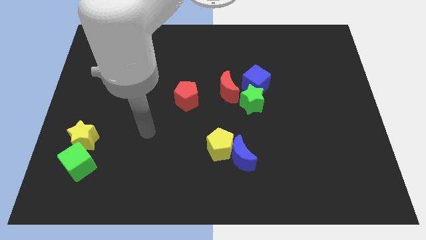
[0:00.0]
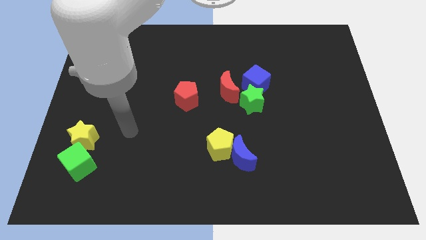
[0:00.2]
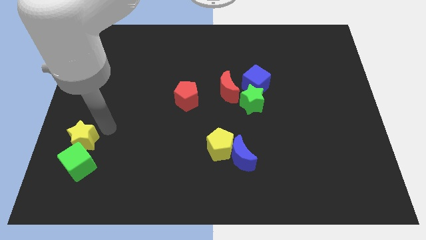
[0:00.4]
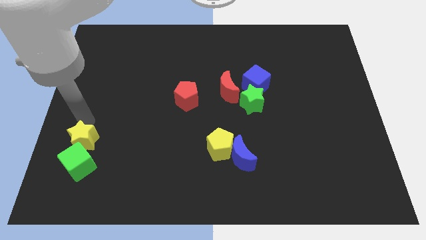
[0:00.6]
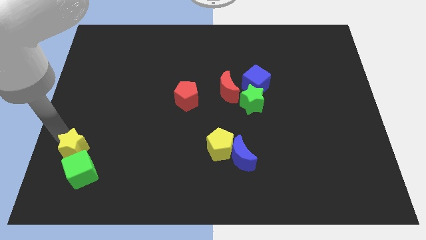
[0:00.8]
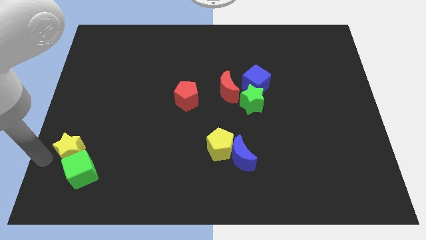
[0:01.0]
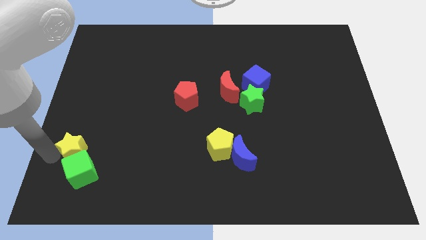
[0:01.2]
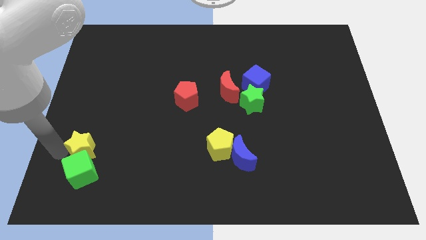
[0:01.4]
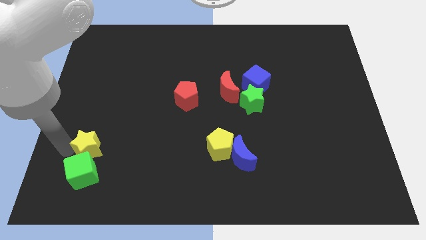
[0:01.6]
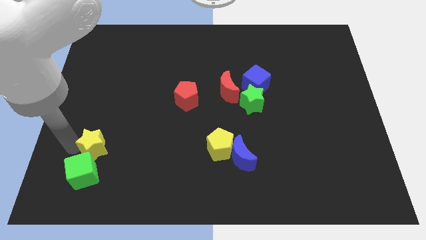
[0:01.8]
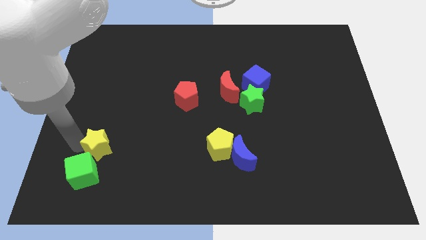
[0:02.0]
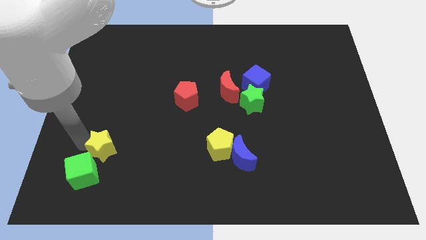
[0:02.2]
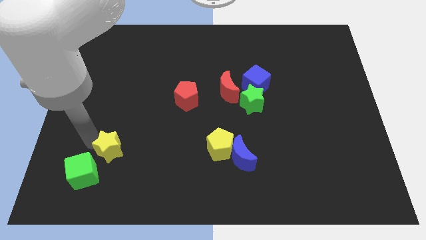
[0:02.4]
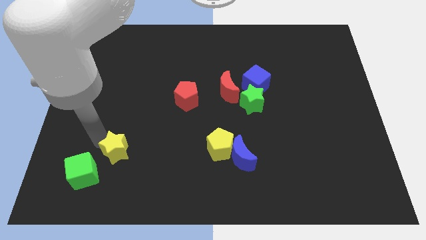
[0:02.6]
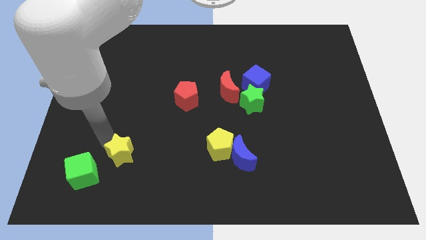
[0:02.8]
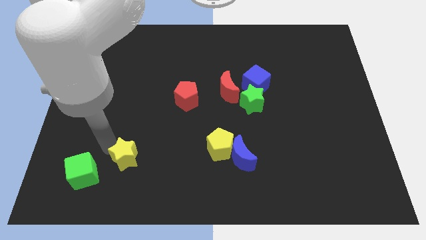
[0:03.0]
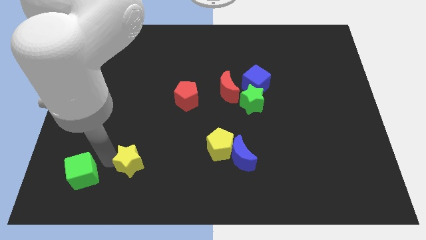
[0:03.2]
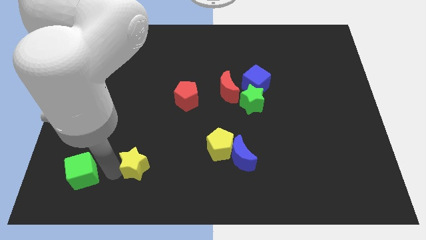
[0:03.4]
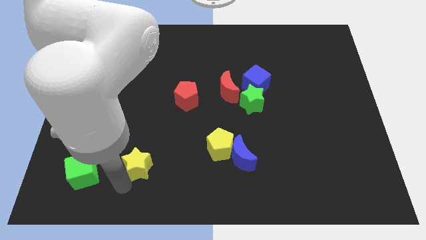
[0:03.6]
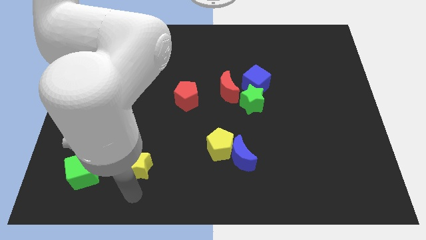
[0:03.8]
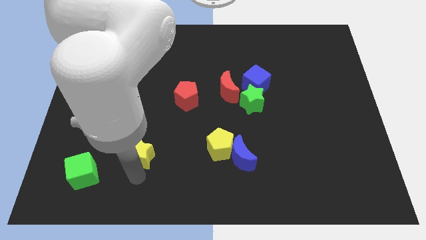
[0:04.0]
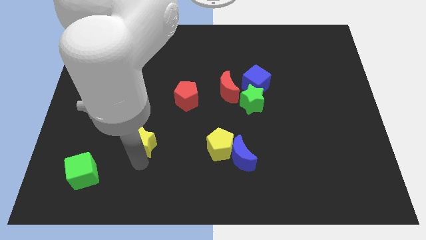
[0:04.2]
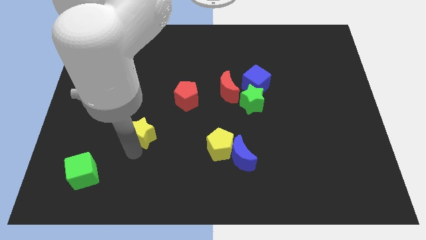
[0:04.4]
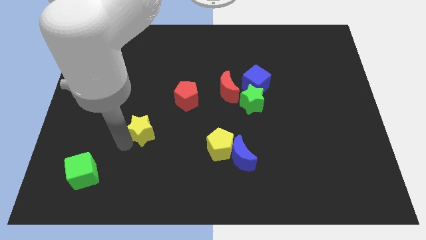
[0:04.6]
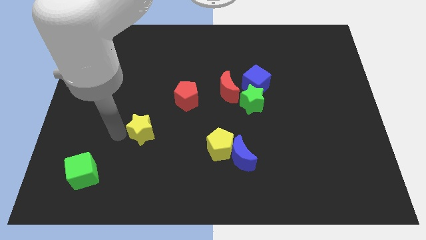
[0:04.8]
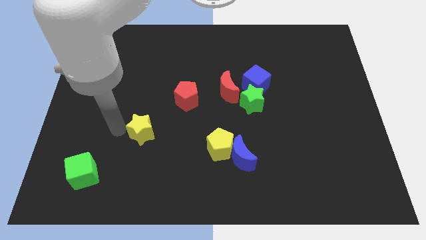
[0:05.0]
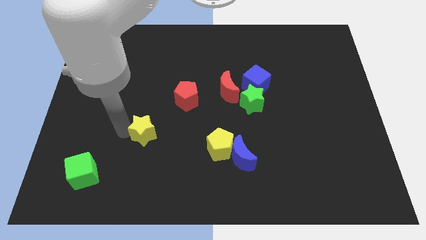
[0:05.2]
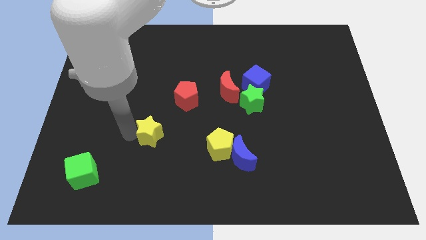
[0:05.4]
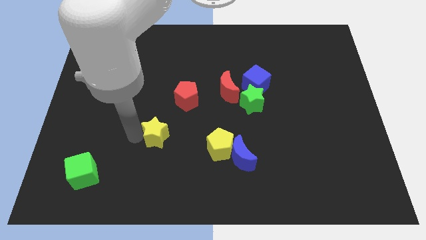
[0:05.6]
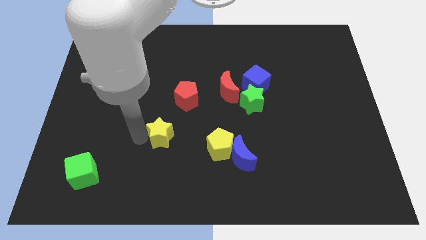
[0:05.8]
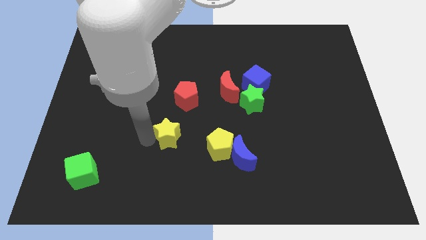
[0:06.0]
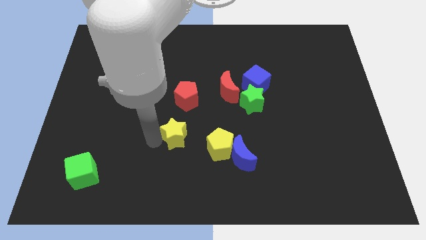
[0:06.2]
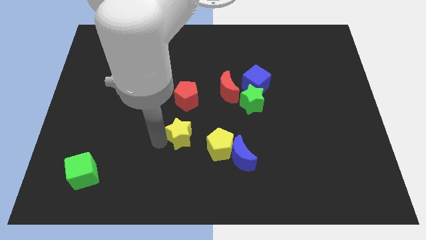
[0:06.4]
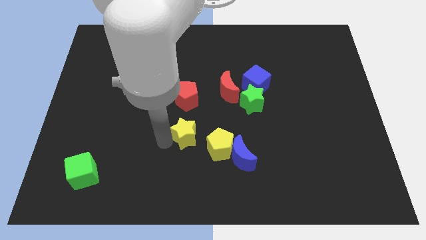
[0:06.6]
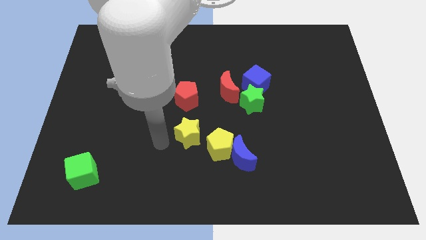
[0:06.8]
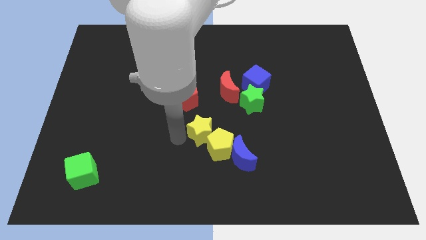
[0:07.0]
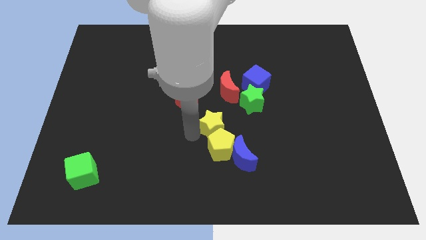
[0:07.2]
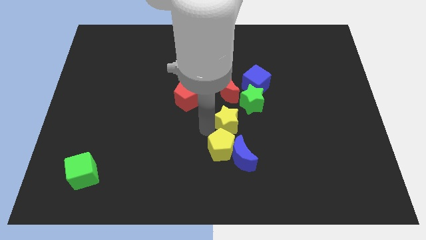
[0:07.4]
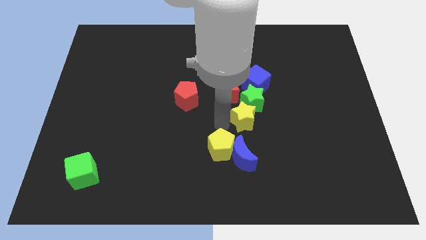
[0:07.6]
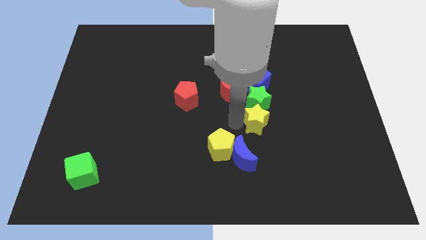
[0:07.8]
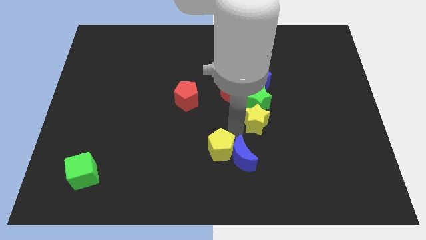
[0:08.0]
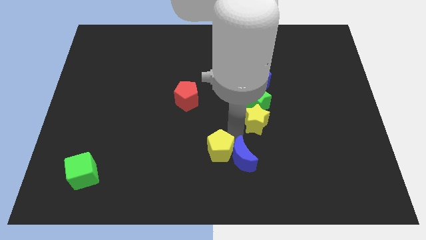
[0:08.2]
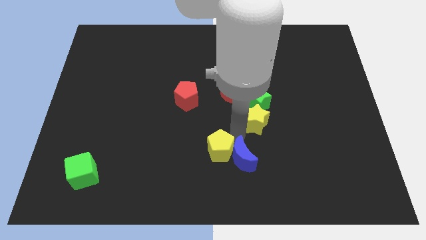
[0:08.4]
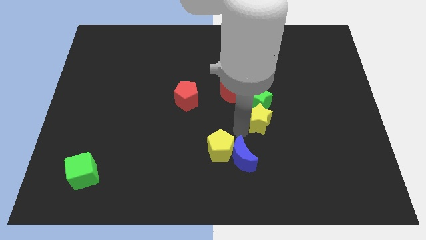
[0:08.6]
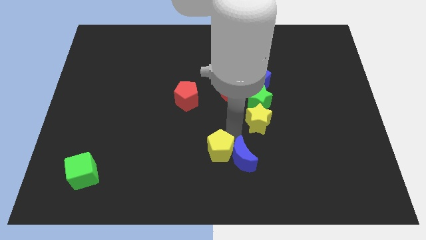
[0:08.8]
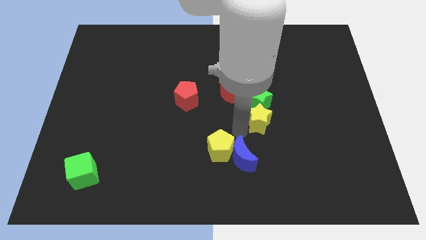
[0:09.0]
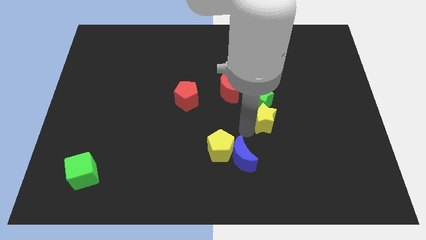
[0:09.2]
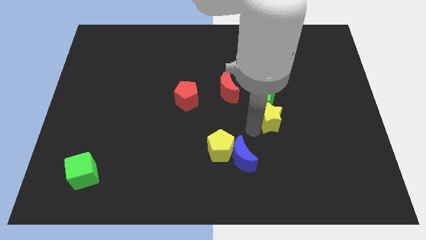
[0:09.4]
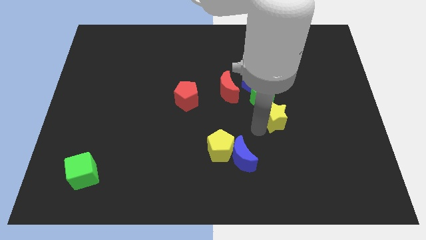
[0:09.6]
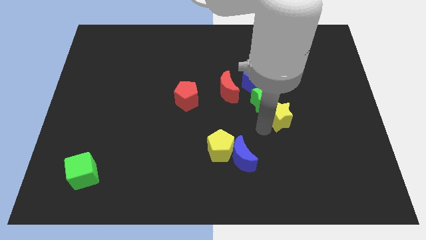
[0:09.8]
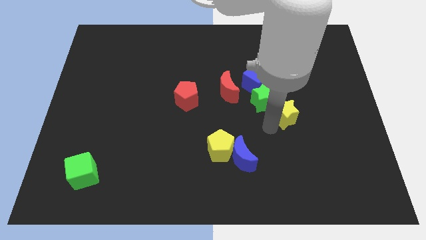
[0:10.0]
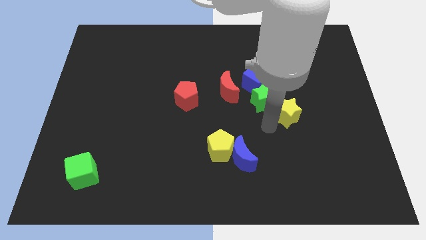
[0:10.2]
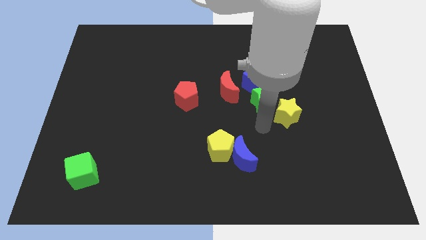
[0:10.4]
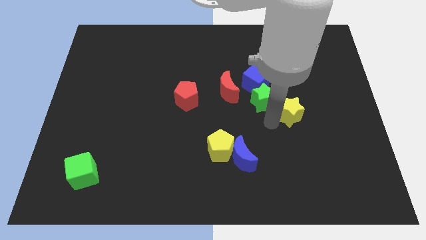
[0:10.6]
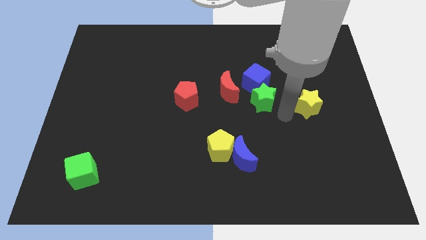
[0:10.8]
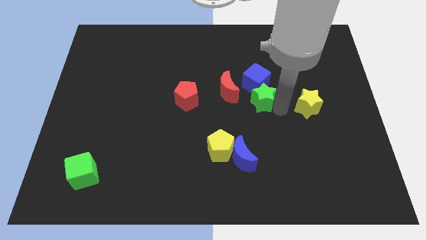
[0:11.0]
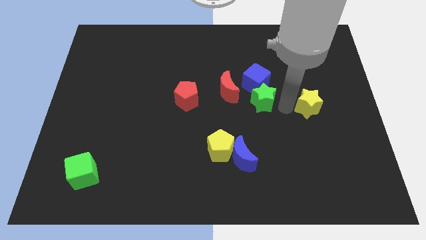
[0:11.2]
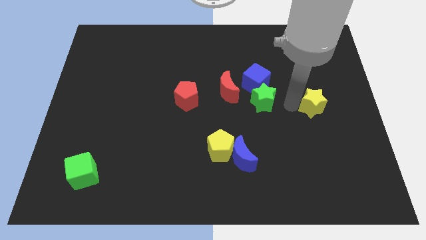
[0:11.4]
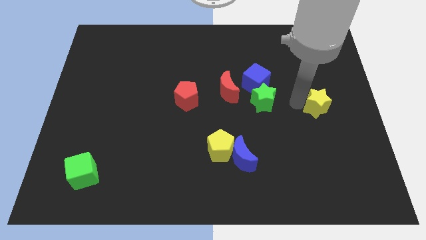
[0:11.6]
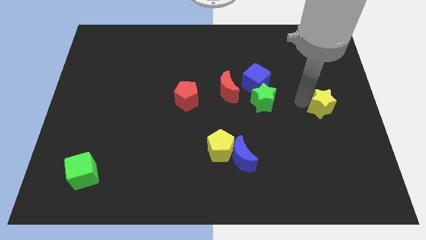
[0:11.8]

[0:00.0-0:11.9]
push the yellow star to the right side of the board
